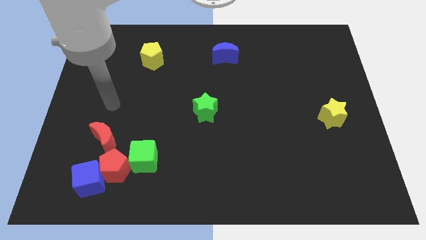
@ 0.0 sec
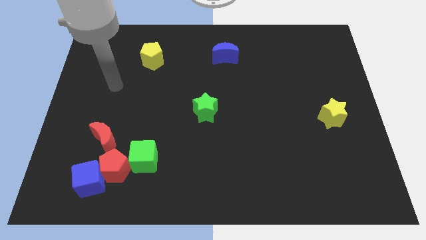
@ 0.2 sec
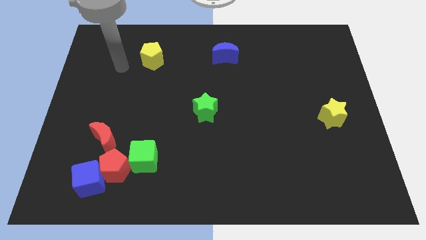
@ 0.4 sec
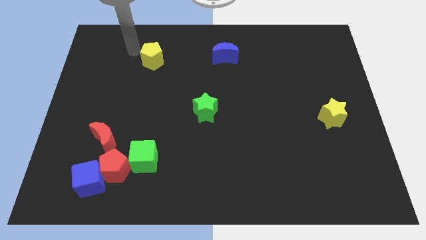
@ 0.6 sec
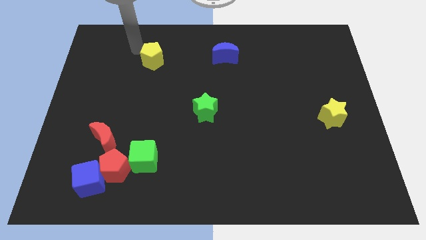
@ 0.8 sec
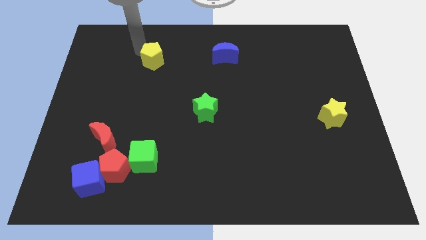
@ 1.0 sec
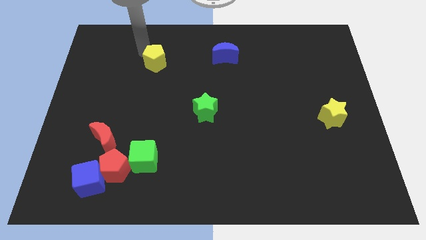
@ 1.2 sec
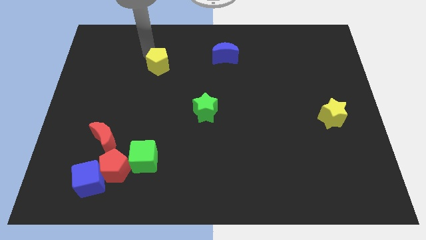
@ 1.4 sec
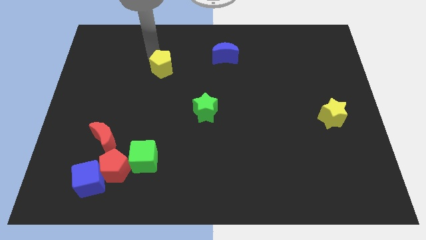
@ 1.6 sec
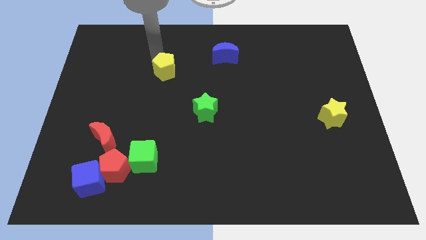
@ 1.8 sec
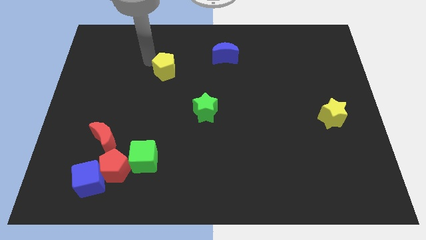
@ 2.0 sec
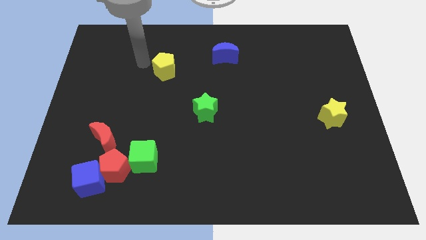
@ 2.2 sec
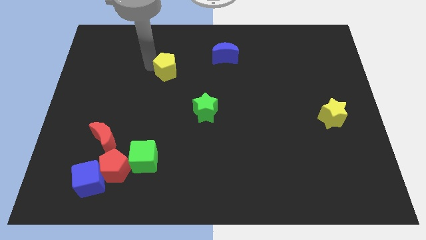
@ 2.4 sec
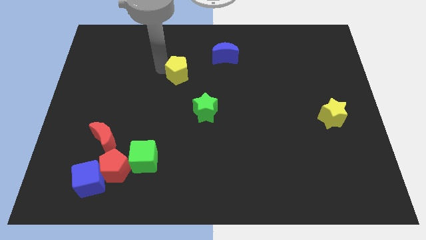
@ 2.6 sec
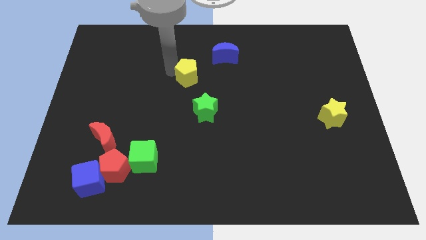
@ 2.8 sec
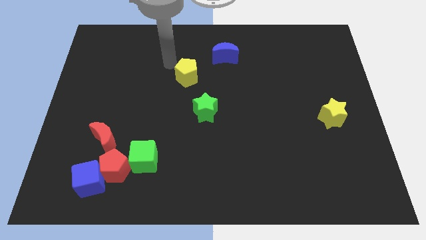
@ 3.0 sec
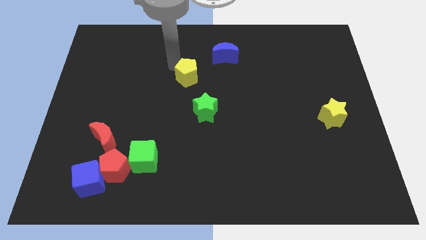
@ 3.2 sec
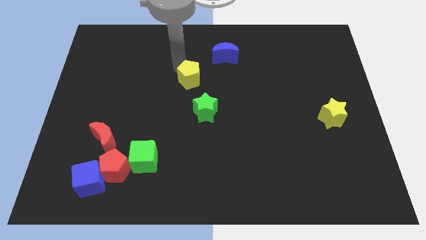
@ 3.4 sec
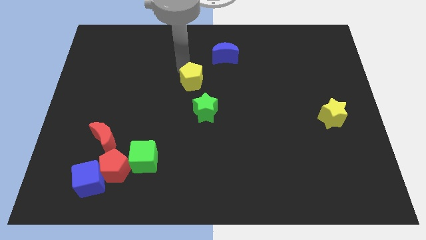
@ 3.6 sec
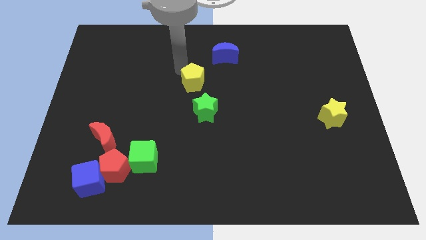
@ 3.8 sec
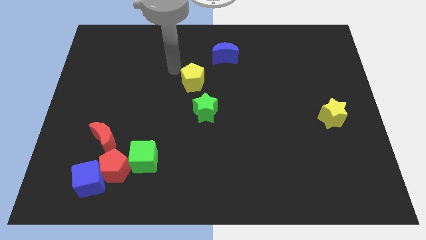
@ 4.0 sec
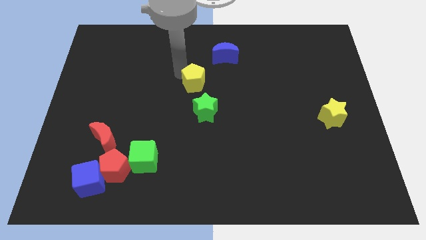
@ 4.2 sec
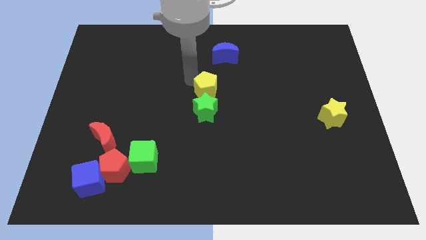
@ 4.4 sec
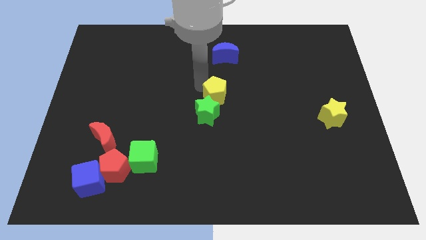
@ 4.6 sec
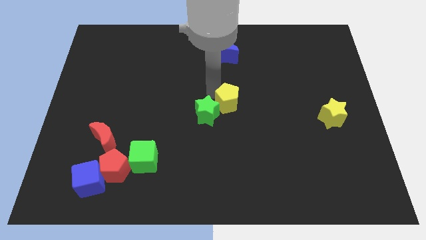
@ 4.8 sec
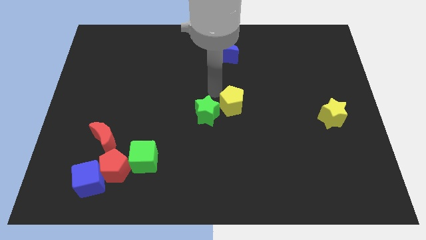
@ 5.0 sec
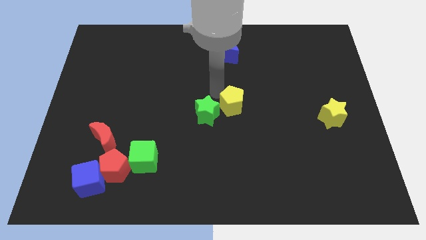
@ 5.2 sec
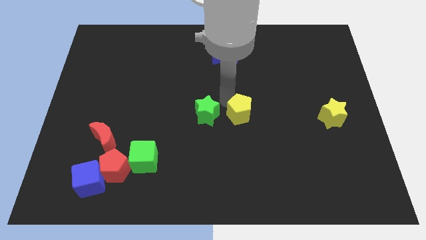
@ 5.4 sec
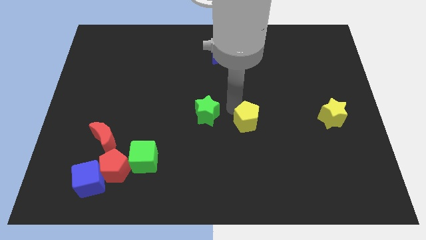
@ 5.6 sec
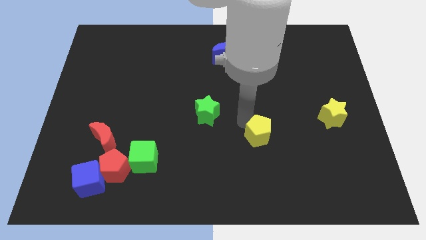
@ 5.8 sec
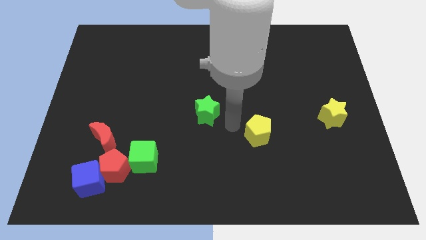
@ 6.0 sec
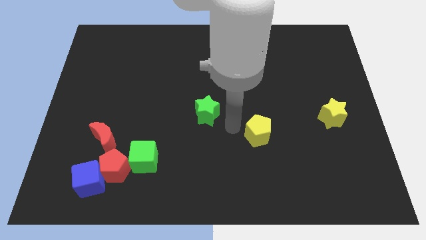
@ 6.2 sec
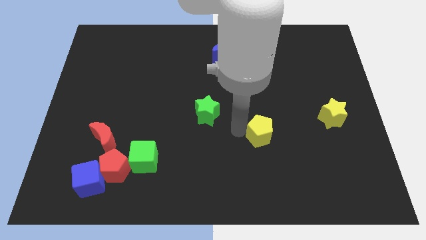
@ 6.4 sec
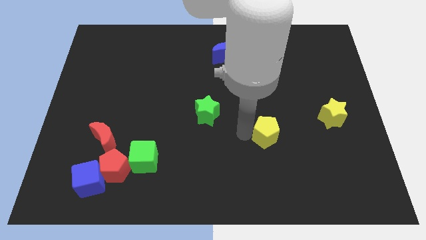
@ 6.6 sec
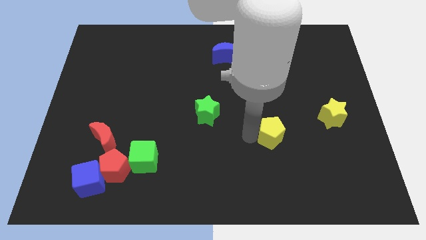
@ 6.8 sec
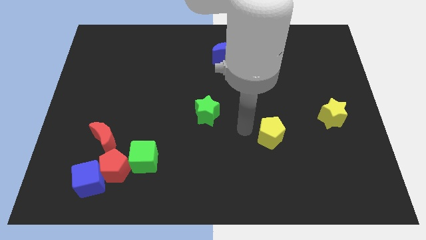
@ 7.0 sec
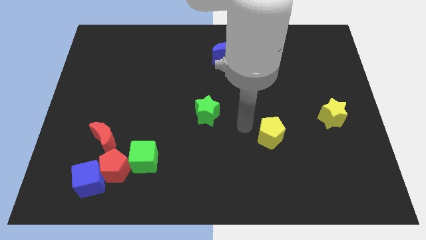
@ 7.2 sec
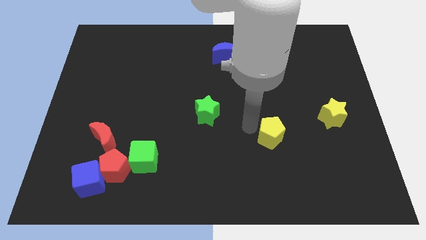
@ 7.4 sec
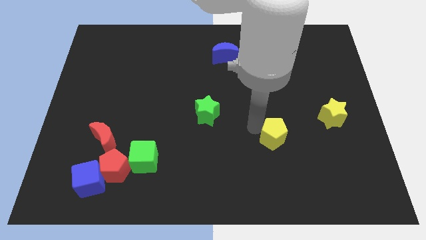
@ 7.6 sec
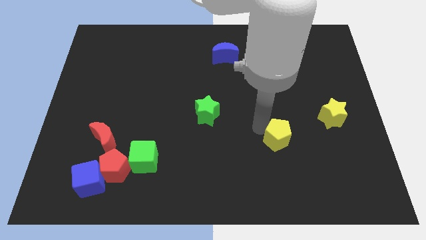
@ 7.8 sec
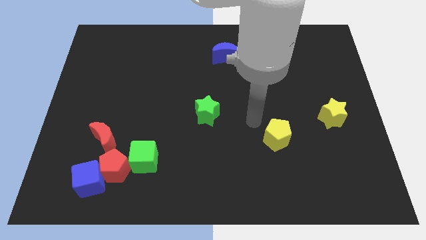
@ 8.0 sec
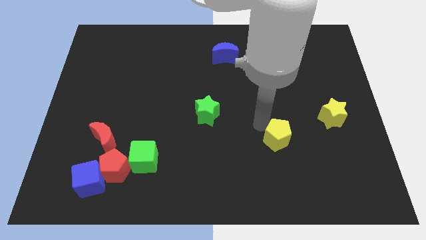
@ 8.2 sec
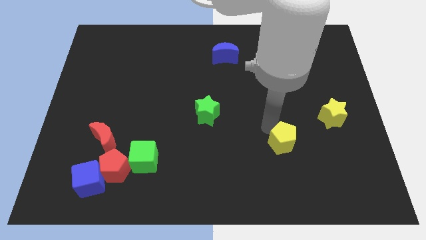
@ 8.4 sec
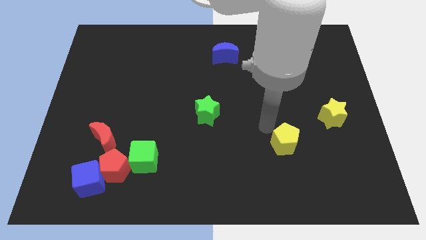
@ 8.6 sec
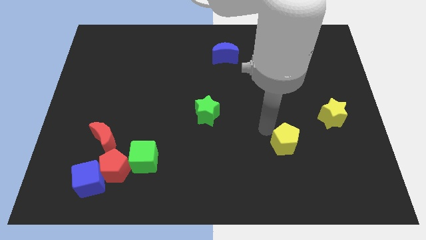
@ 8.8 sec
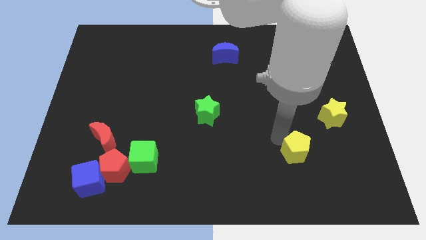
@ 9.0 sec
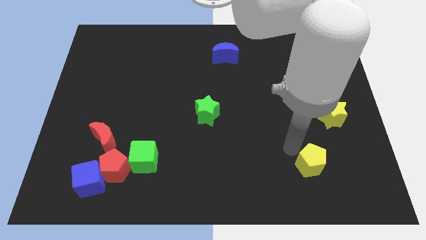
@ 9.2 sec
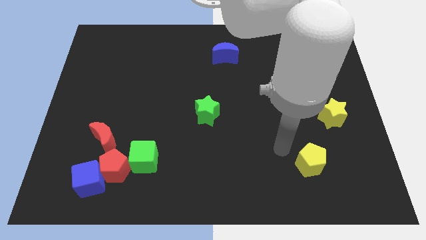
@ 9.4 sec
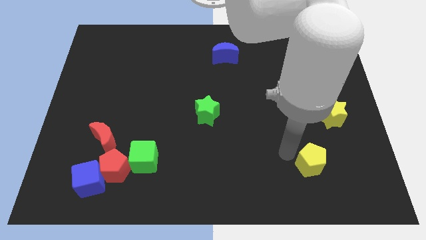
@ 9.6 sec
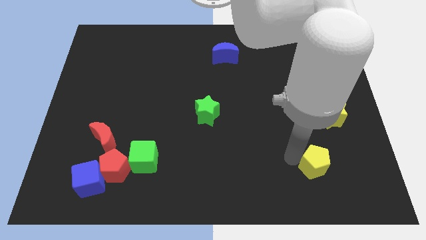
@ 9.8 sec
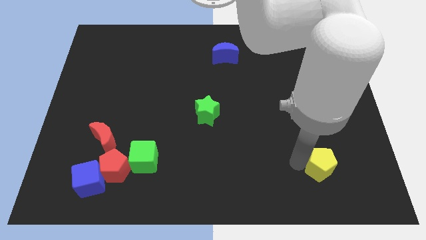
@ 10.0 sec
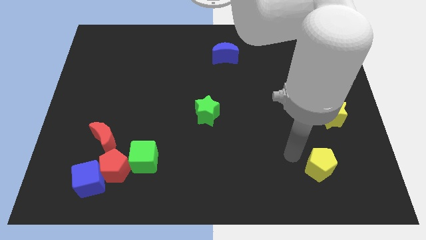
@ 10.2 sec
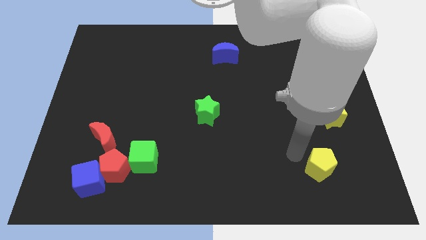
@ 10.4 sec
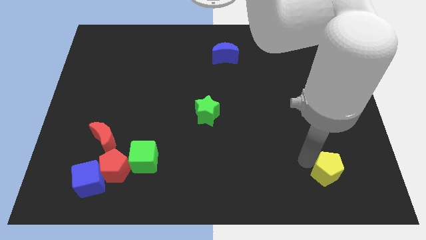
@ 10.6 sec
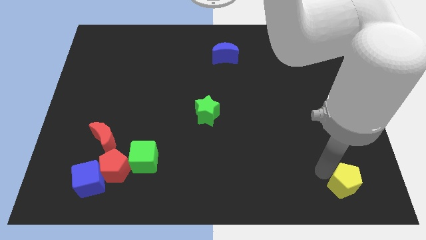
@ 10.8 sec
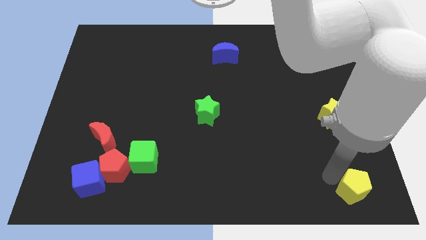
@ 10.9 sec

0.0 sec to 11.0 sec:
slide the yellow pentagon to the bottom right

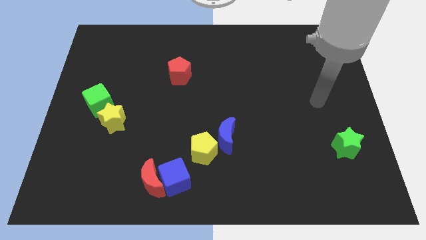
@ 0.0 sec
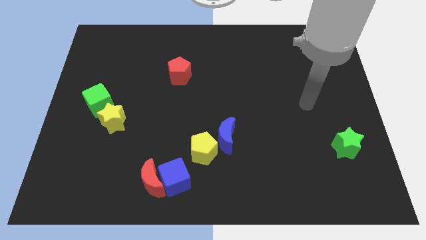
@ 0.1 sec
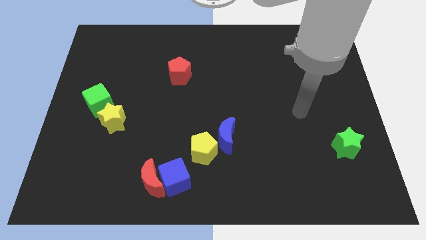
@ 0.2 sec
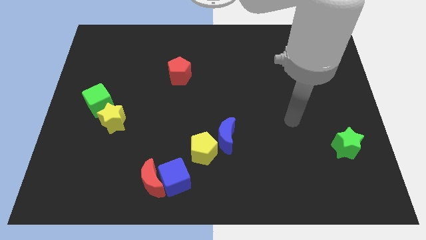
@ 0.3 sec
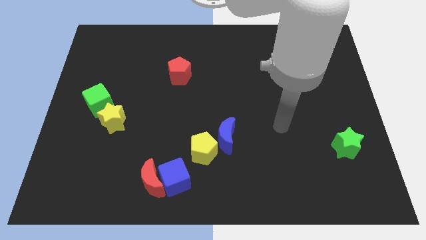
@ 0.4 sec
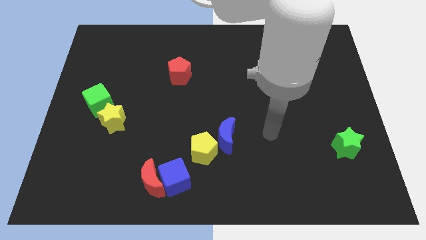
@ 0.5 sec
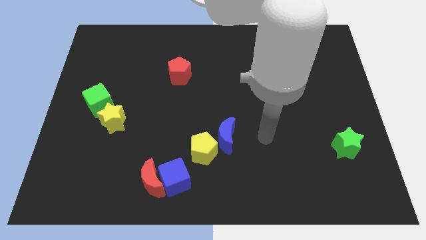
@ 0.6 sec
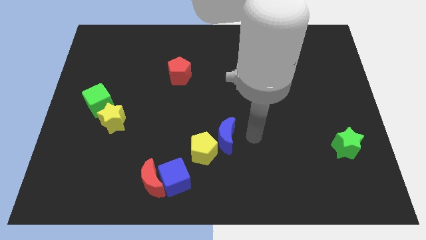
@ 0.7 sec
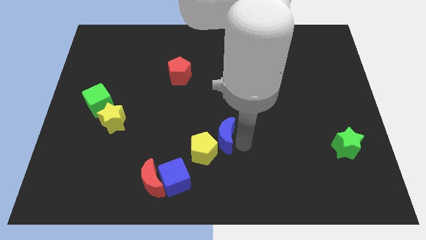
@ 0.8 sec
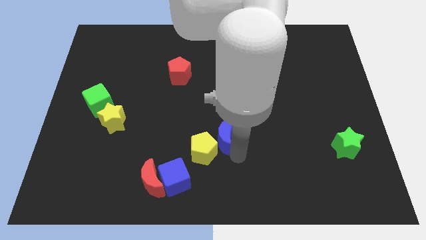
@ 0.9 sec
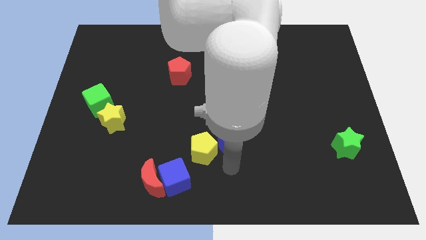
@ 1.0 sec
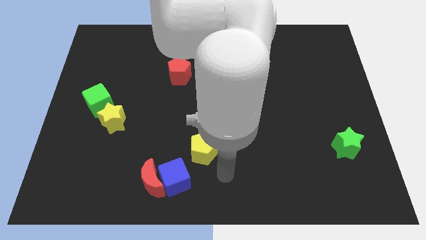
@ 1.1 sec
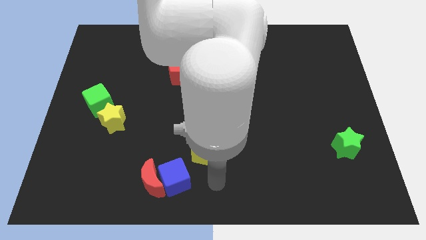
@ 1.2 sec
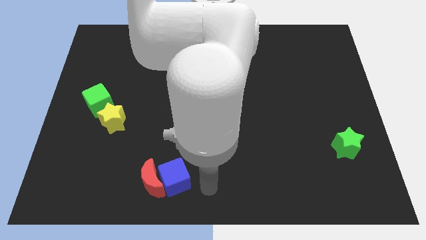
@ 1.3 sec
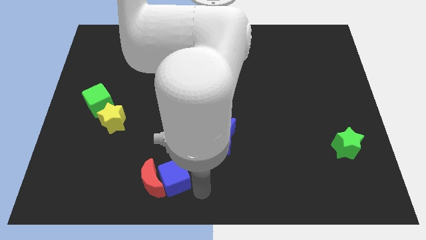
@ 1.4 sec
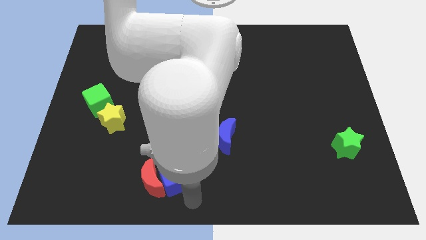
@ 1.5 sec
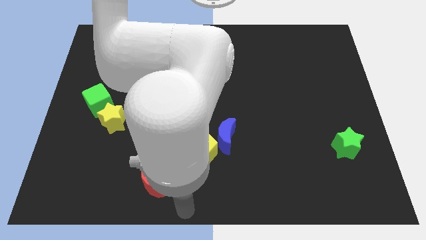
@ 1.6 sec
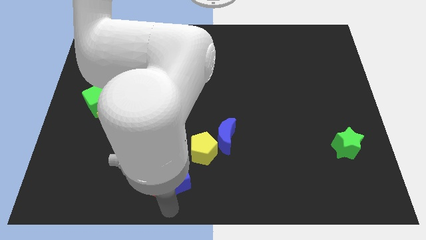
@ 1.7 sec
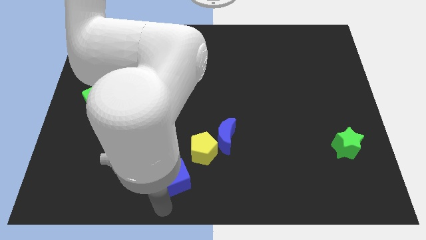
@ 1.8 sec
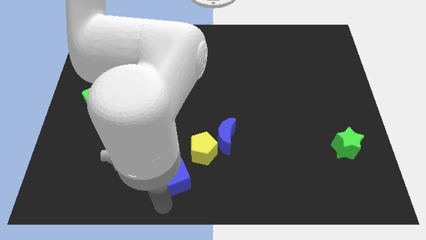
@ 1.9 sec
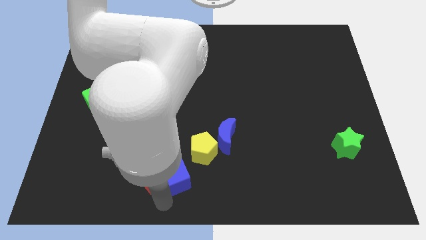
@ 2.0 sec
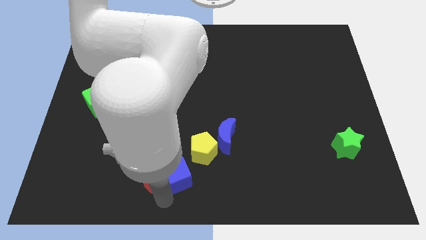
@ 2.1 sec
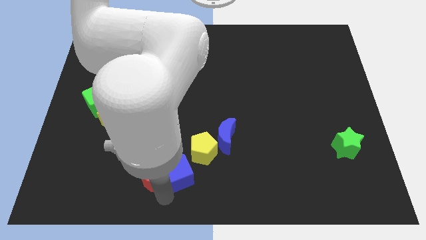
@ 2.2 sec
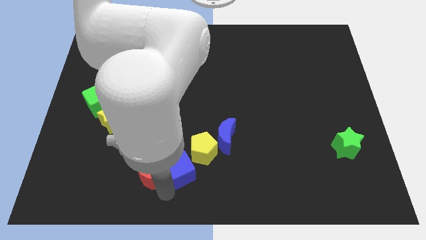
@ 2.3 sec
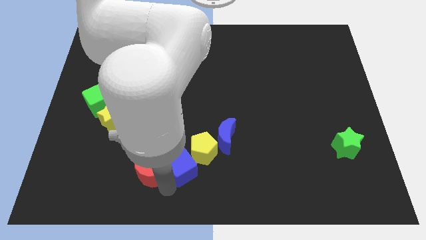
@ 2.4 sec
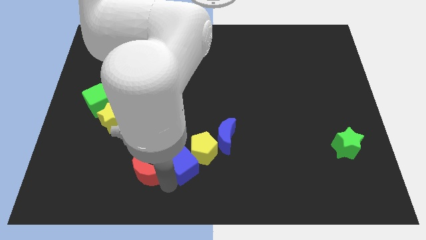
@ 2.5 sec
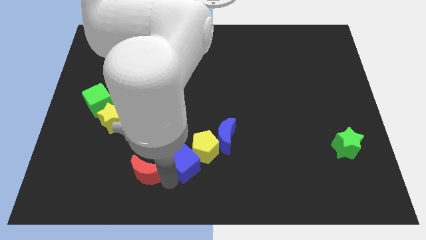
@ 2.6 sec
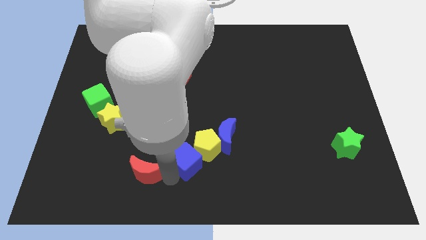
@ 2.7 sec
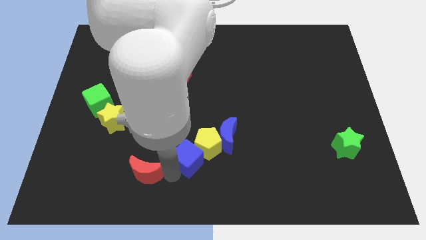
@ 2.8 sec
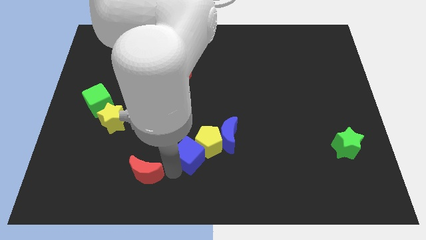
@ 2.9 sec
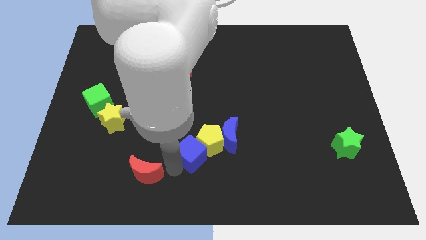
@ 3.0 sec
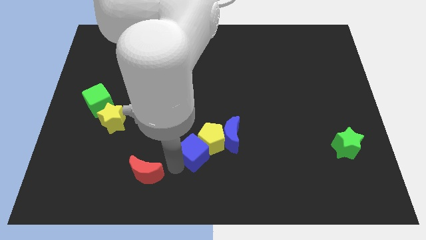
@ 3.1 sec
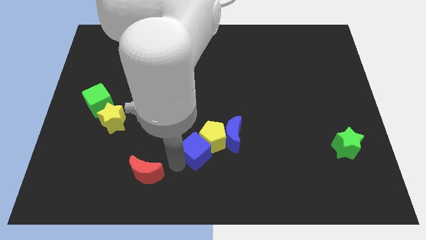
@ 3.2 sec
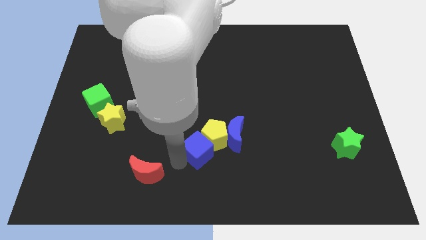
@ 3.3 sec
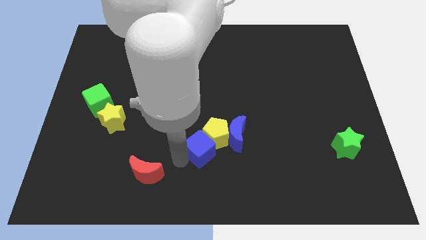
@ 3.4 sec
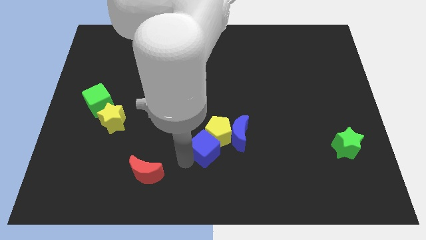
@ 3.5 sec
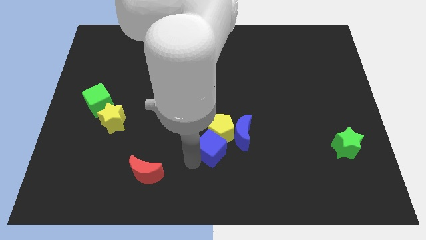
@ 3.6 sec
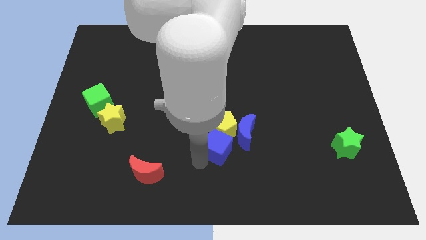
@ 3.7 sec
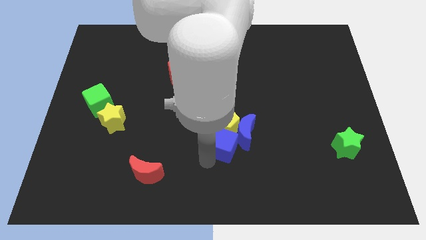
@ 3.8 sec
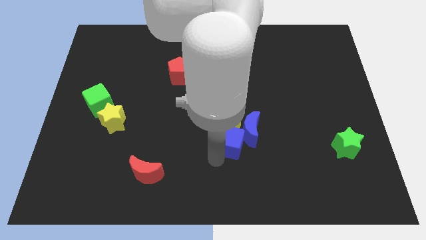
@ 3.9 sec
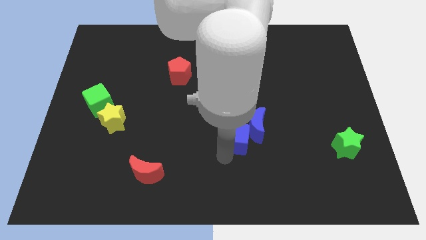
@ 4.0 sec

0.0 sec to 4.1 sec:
move the blue cube to the middle of the board
